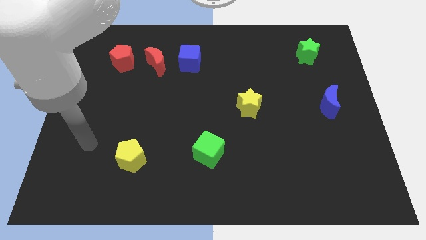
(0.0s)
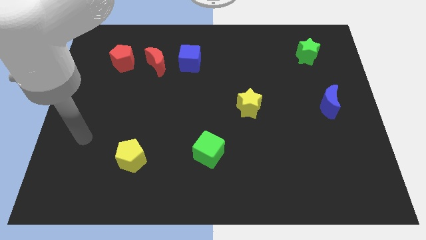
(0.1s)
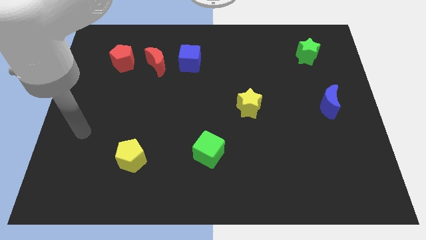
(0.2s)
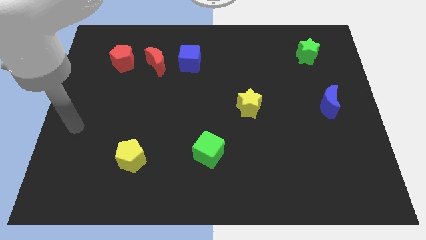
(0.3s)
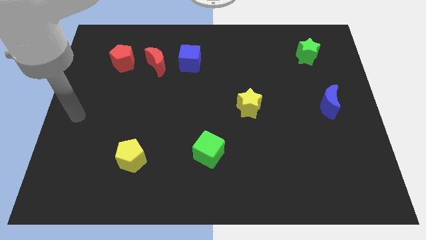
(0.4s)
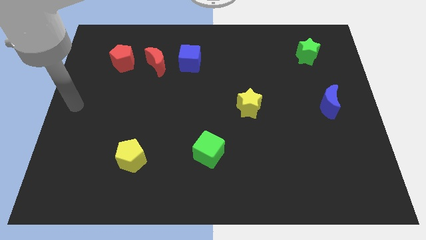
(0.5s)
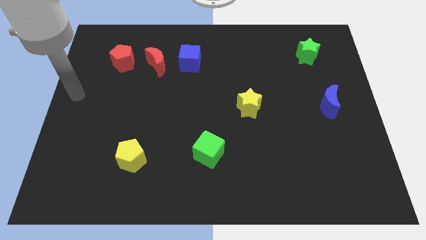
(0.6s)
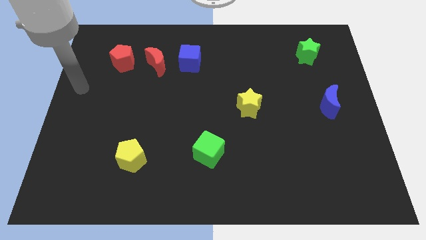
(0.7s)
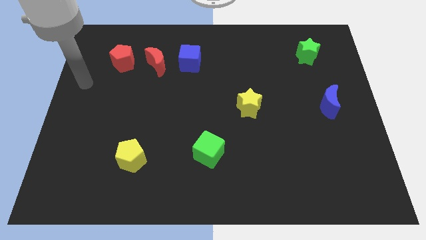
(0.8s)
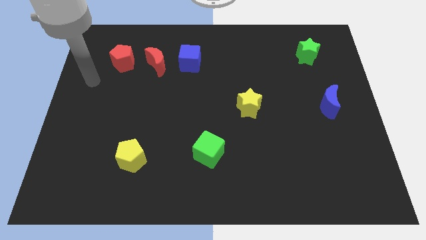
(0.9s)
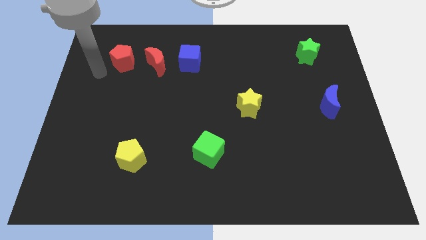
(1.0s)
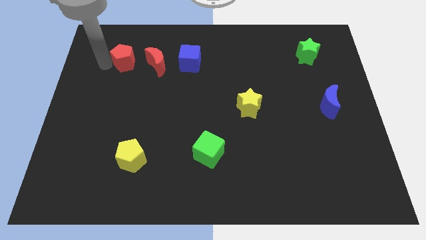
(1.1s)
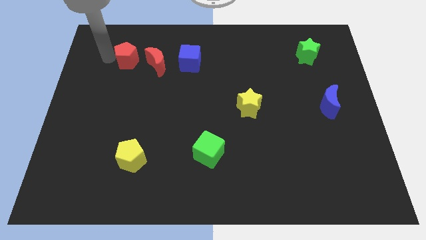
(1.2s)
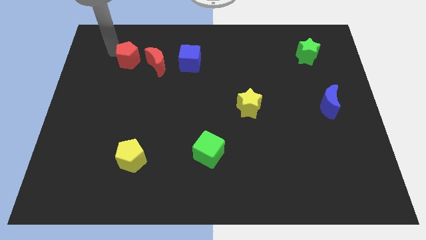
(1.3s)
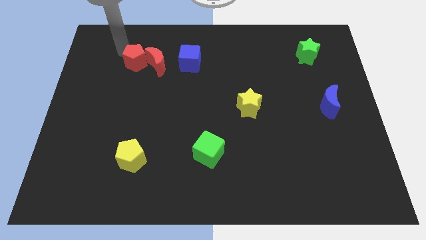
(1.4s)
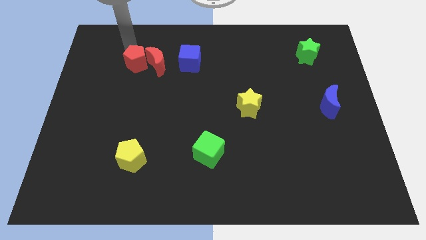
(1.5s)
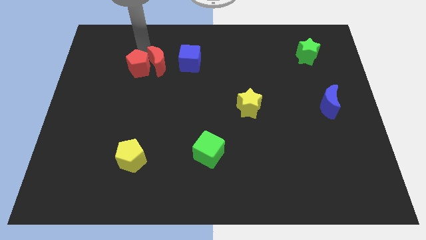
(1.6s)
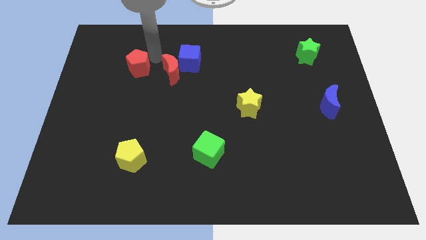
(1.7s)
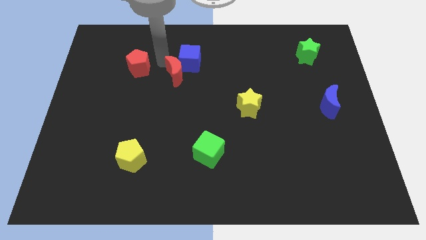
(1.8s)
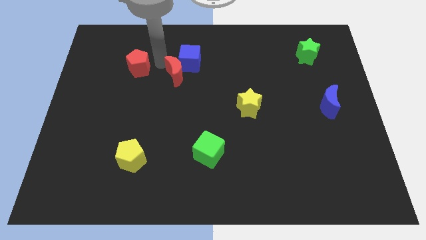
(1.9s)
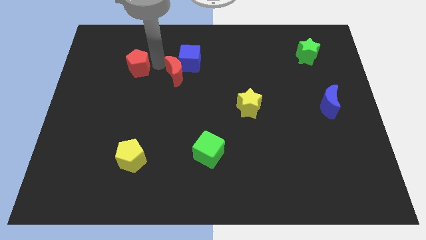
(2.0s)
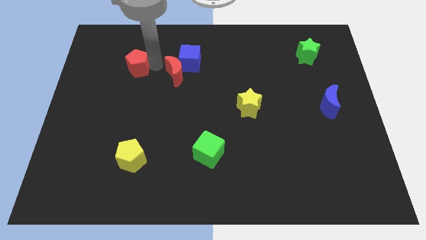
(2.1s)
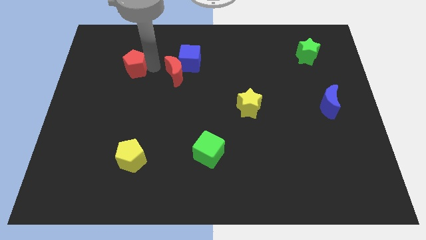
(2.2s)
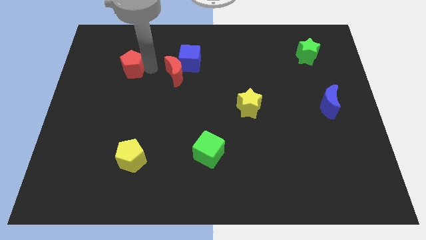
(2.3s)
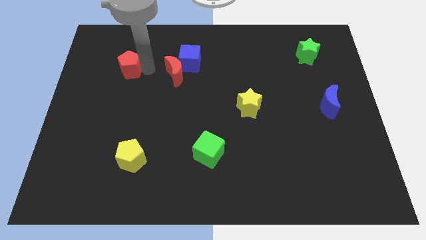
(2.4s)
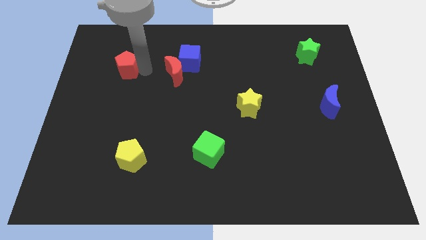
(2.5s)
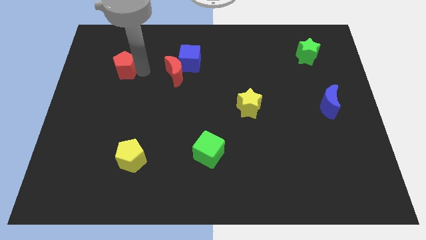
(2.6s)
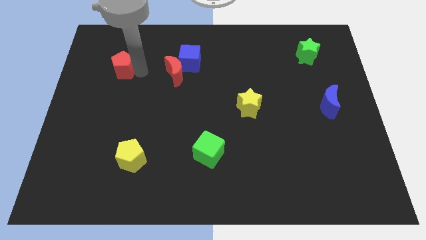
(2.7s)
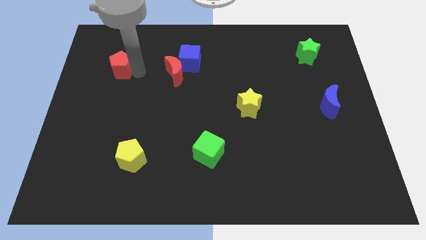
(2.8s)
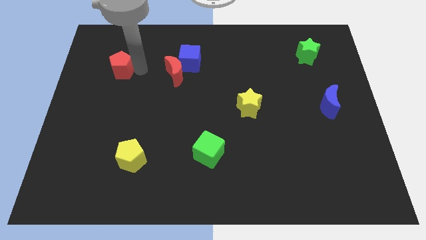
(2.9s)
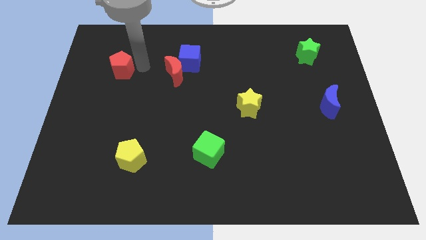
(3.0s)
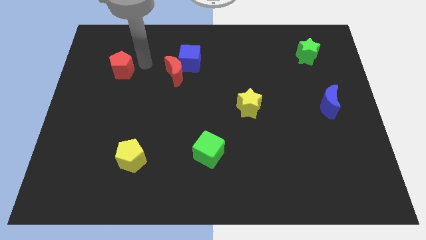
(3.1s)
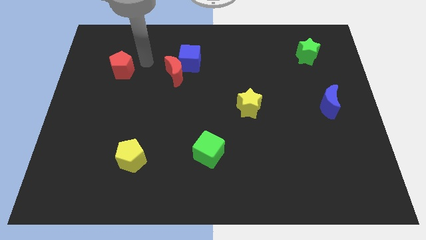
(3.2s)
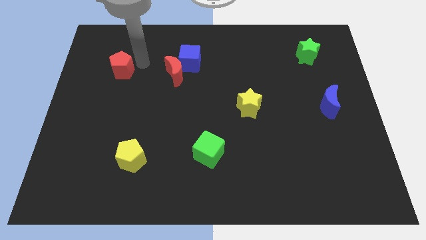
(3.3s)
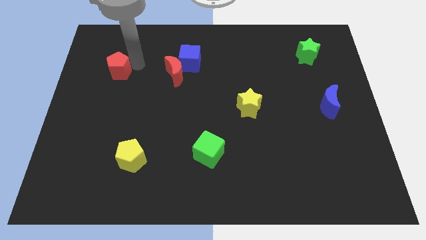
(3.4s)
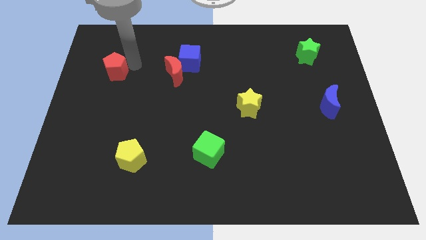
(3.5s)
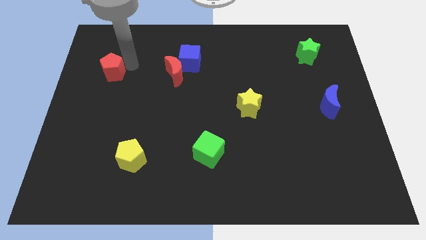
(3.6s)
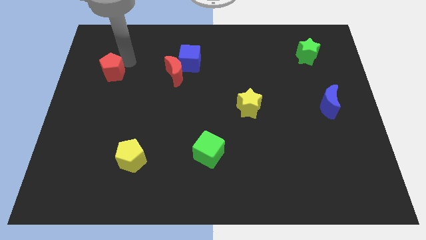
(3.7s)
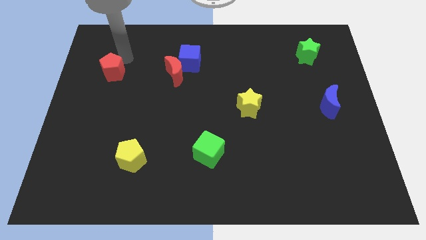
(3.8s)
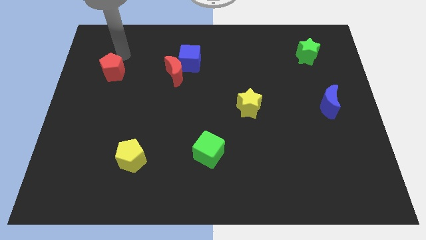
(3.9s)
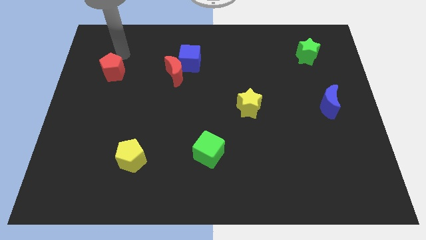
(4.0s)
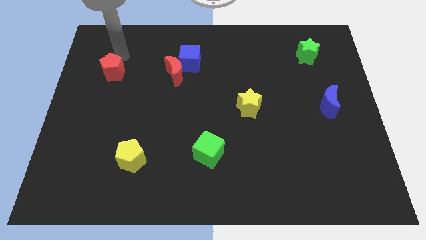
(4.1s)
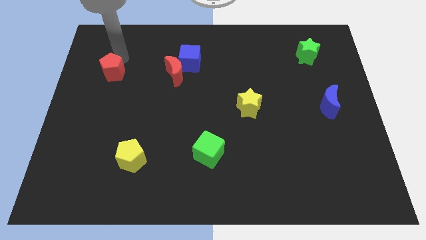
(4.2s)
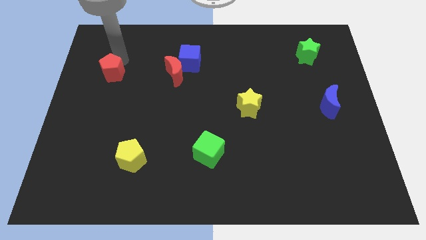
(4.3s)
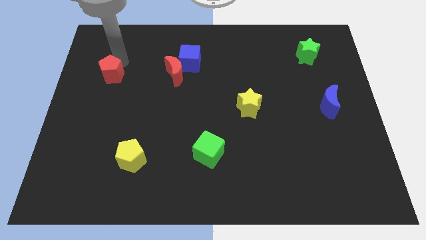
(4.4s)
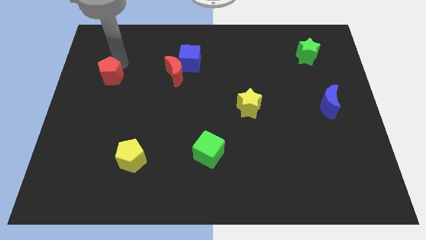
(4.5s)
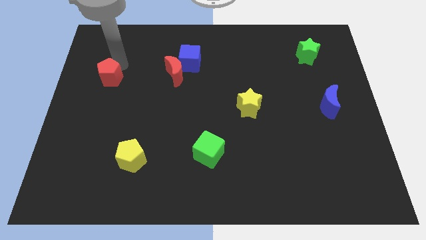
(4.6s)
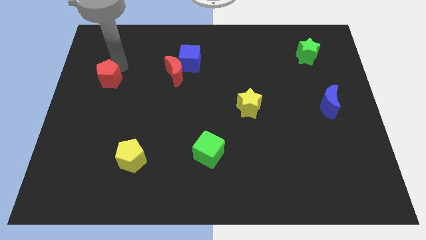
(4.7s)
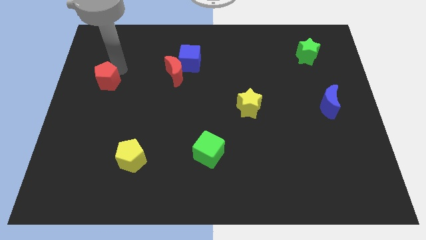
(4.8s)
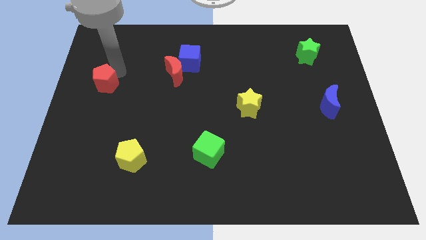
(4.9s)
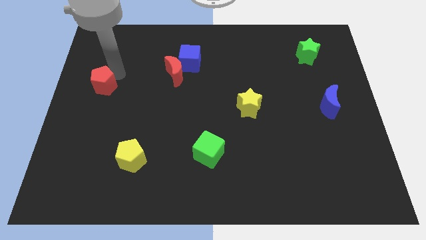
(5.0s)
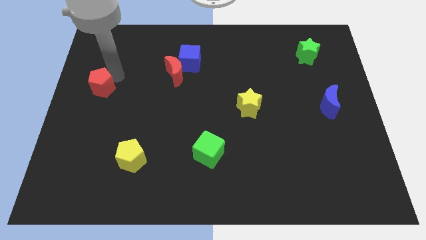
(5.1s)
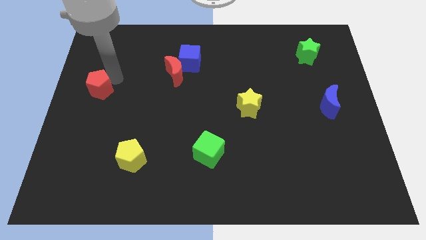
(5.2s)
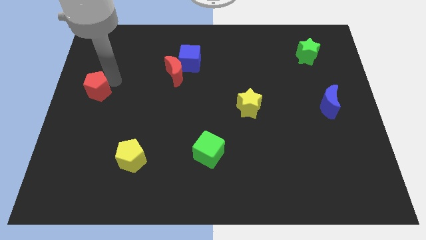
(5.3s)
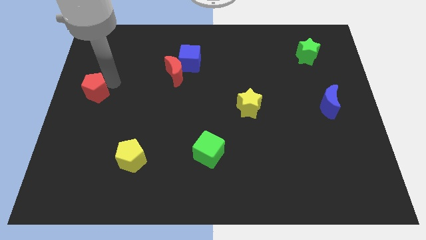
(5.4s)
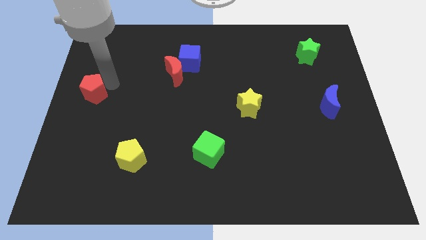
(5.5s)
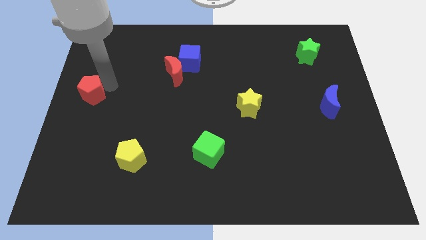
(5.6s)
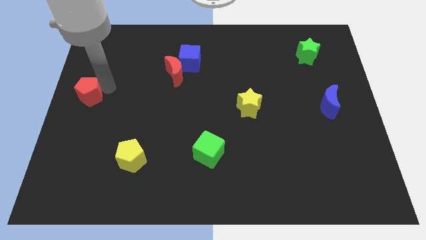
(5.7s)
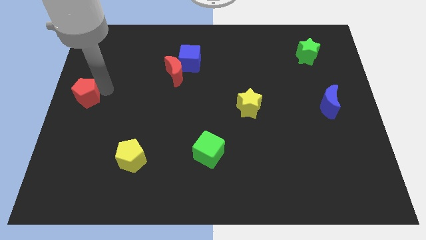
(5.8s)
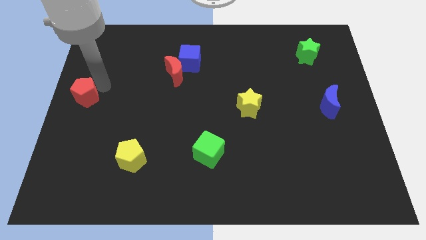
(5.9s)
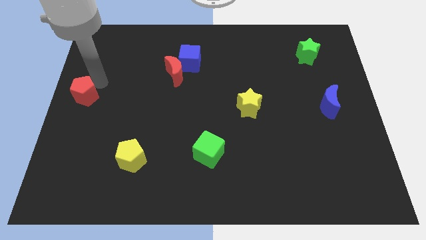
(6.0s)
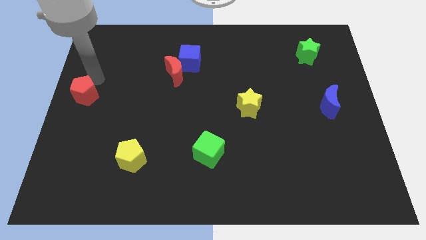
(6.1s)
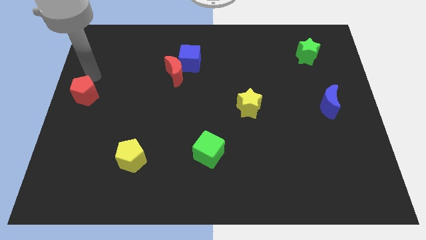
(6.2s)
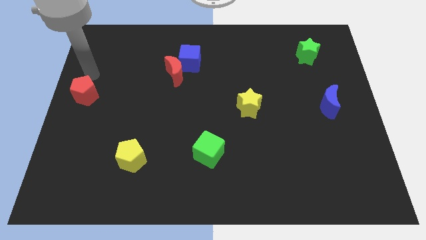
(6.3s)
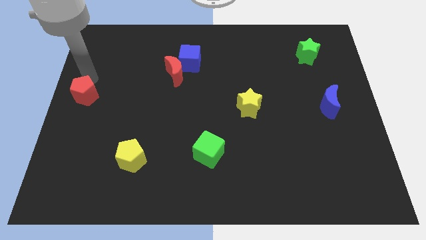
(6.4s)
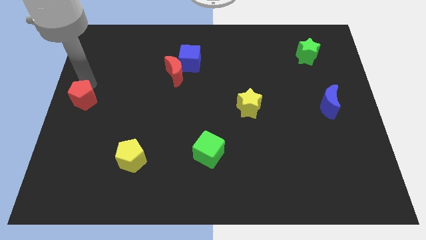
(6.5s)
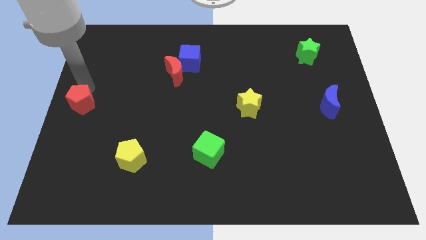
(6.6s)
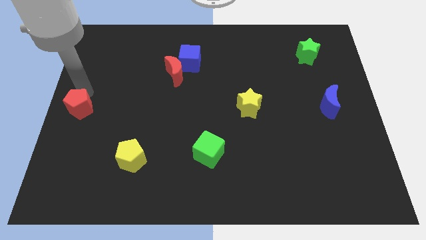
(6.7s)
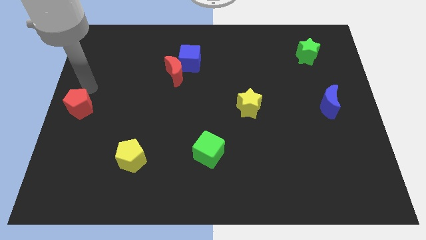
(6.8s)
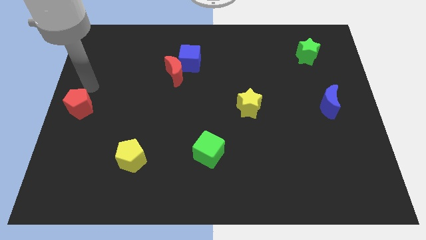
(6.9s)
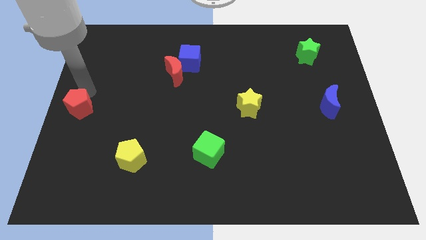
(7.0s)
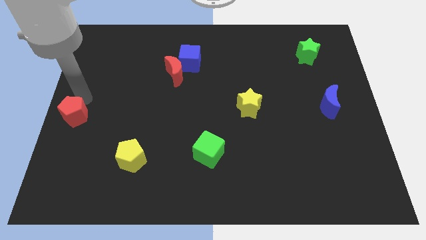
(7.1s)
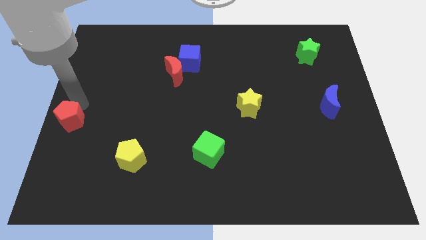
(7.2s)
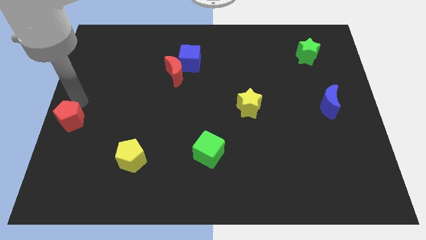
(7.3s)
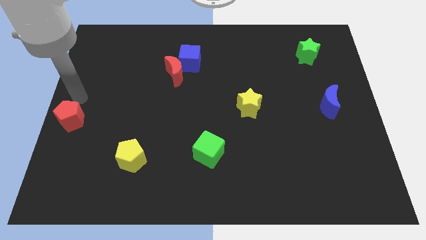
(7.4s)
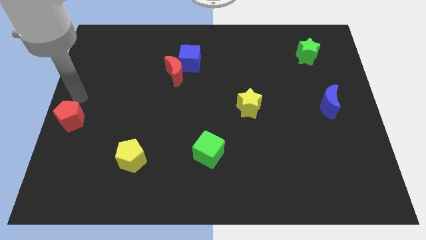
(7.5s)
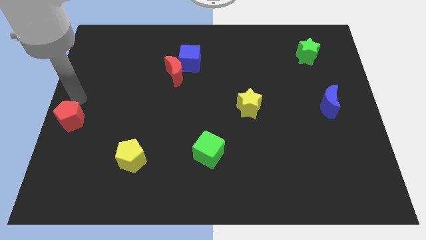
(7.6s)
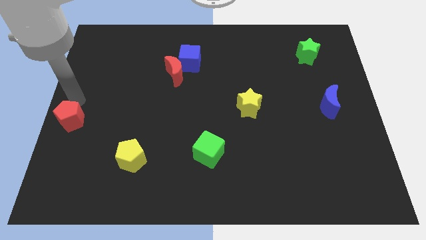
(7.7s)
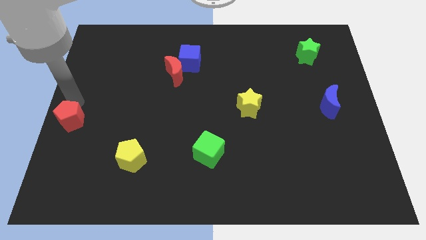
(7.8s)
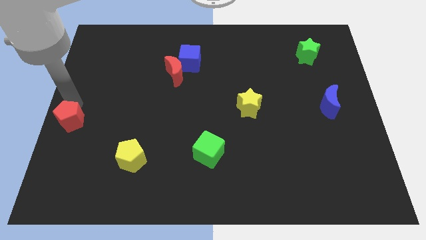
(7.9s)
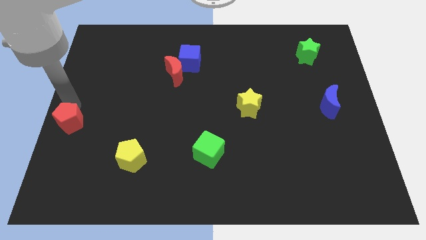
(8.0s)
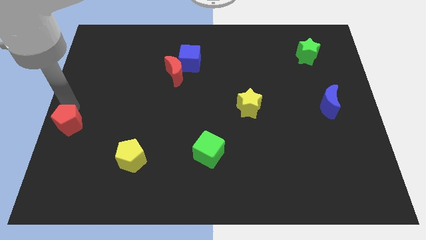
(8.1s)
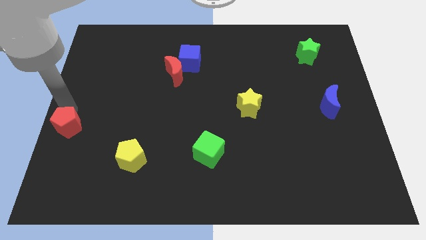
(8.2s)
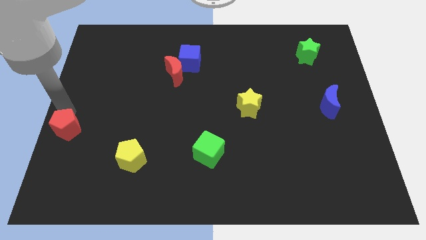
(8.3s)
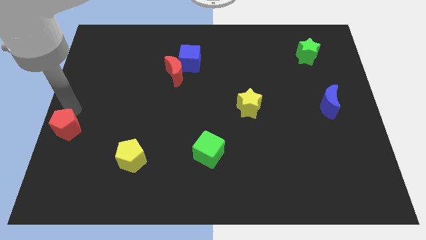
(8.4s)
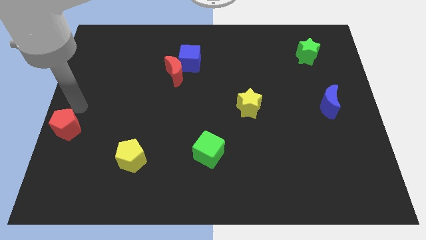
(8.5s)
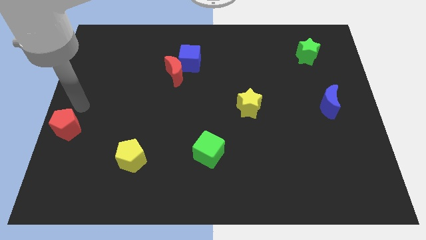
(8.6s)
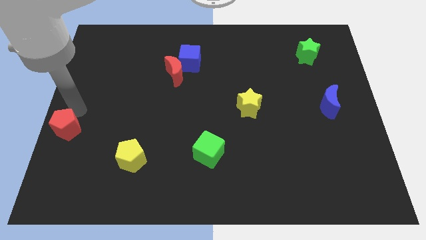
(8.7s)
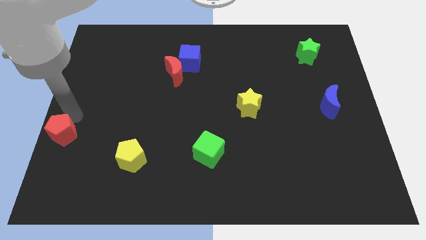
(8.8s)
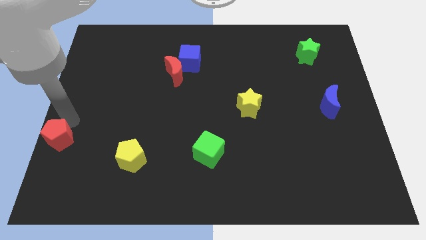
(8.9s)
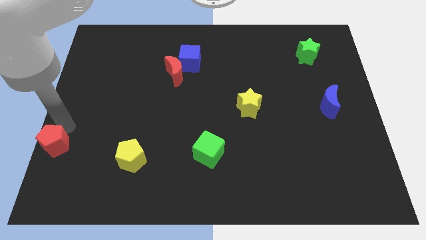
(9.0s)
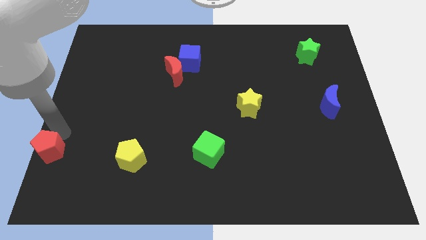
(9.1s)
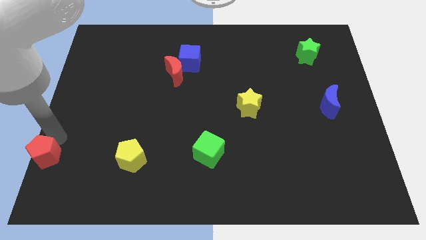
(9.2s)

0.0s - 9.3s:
move the red pentagon to the bottom left corner
